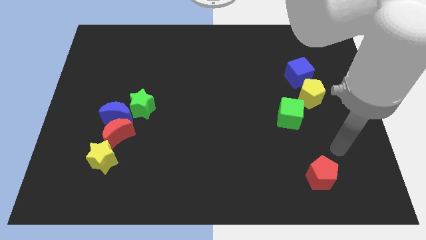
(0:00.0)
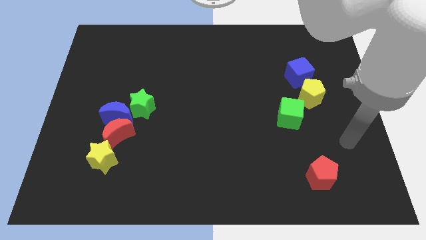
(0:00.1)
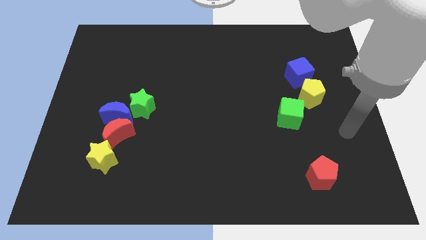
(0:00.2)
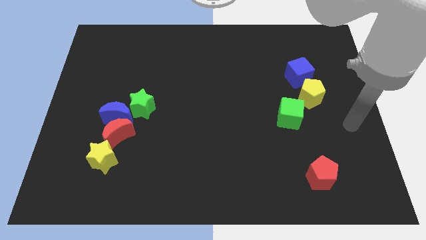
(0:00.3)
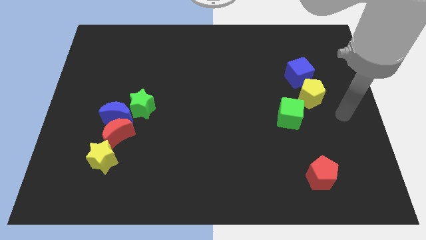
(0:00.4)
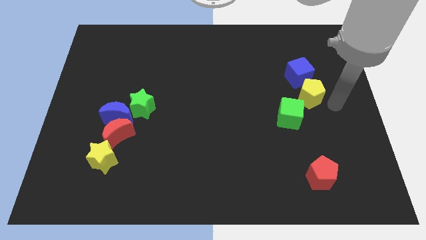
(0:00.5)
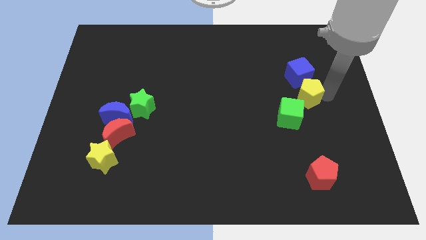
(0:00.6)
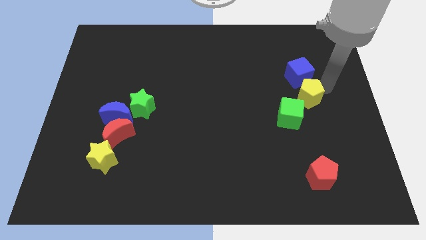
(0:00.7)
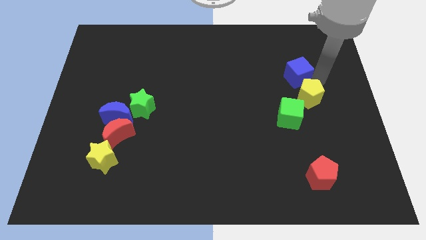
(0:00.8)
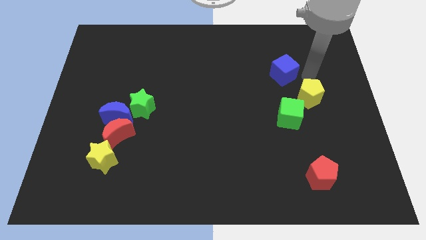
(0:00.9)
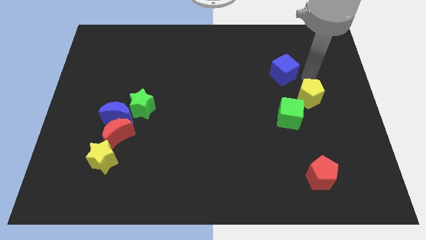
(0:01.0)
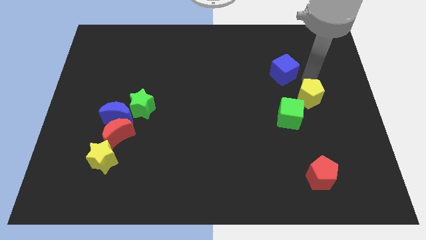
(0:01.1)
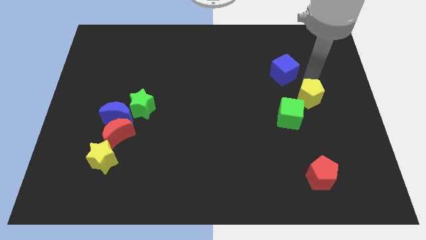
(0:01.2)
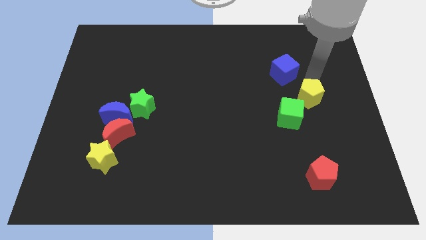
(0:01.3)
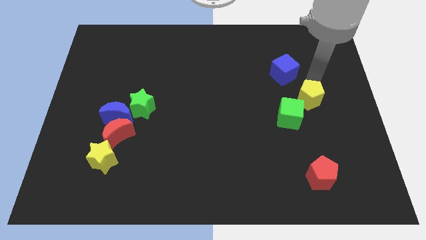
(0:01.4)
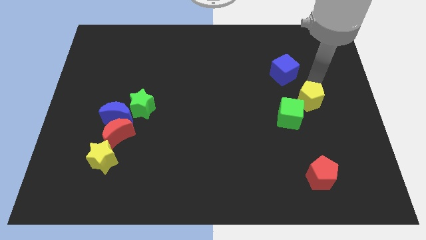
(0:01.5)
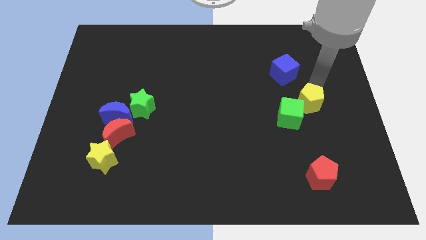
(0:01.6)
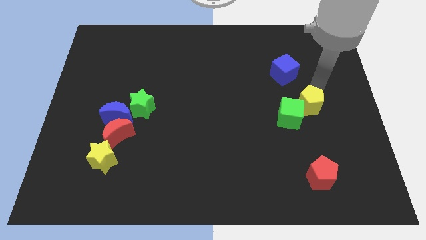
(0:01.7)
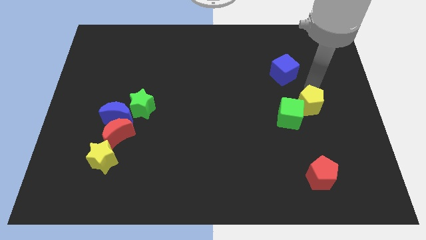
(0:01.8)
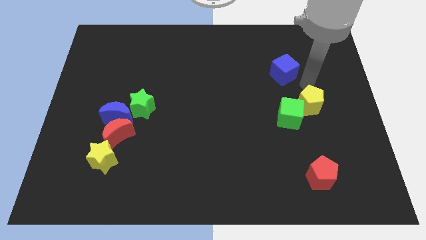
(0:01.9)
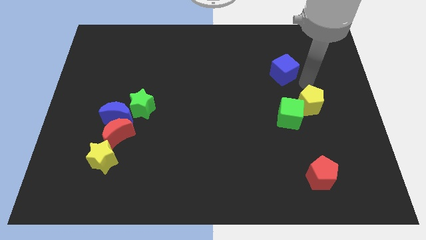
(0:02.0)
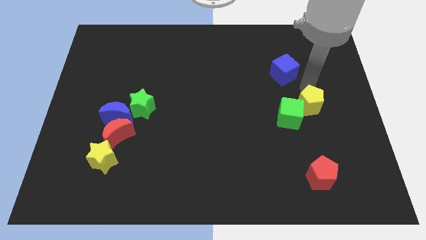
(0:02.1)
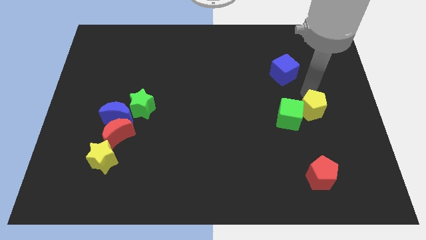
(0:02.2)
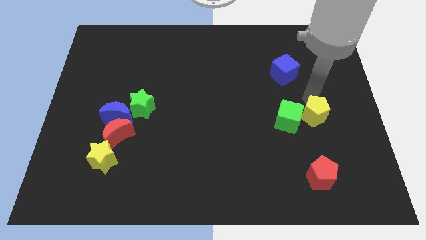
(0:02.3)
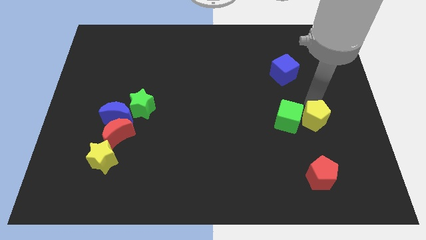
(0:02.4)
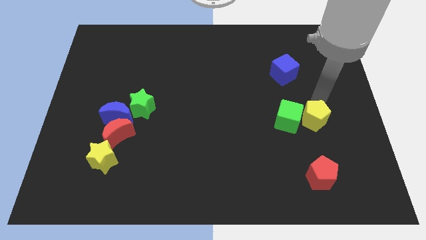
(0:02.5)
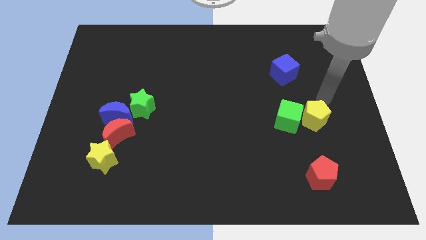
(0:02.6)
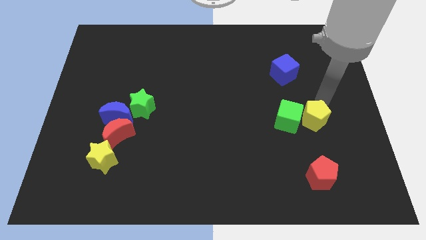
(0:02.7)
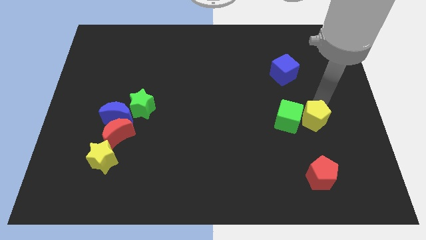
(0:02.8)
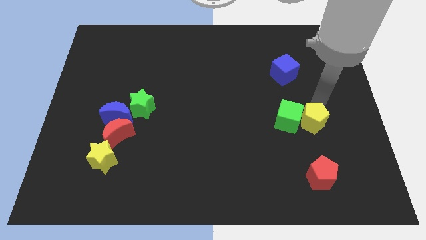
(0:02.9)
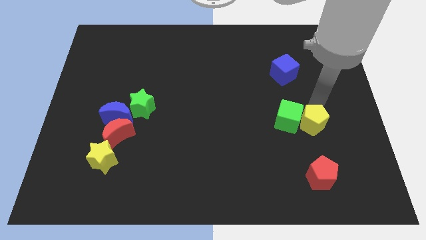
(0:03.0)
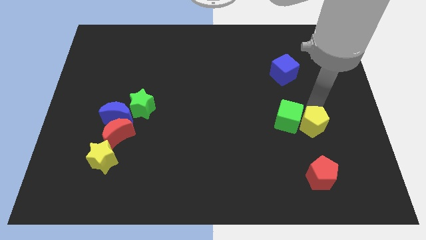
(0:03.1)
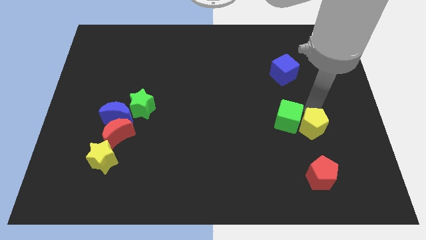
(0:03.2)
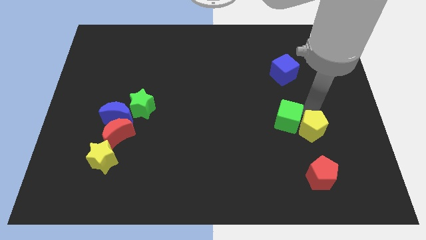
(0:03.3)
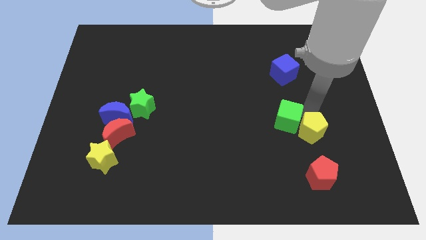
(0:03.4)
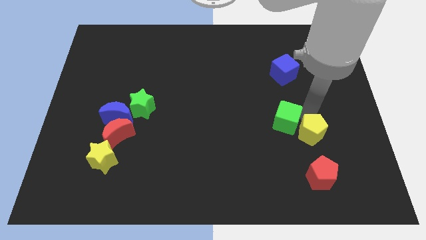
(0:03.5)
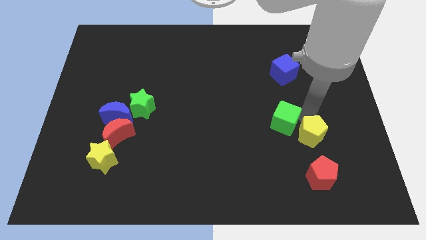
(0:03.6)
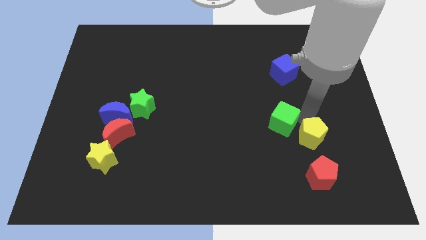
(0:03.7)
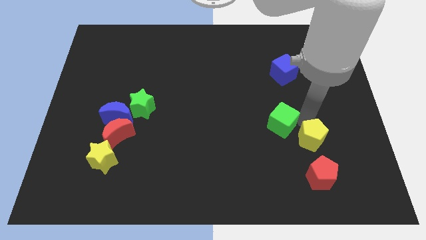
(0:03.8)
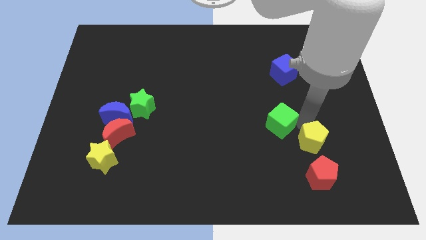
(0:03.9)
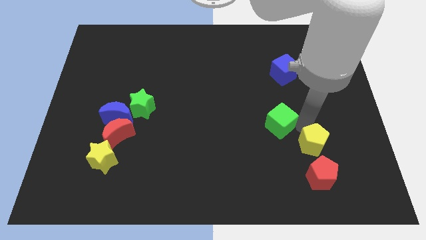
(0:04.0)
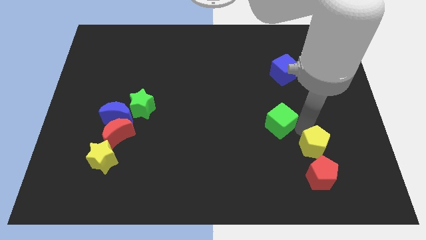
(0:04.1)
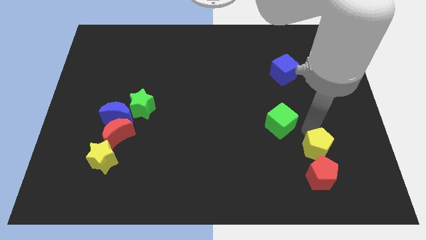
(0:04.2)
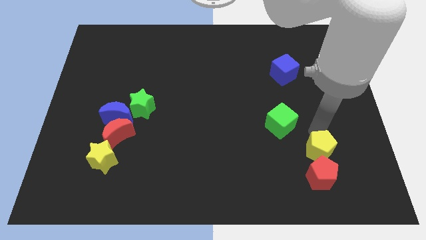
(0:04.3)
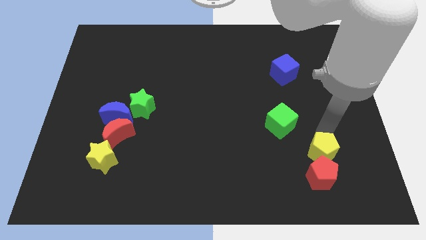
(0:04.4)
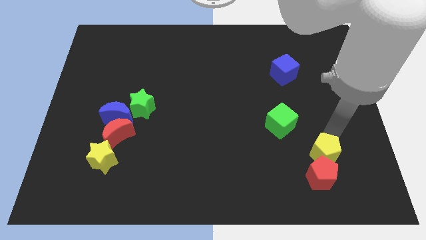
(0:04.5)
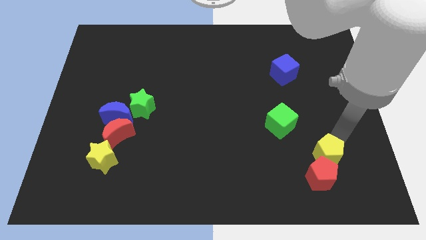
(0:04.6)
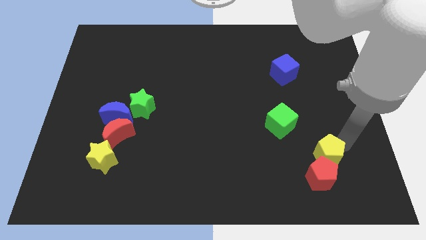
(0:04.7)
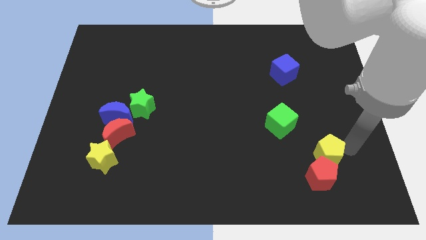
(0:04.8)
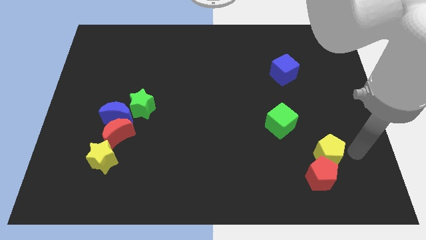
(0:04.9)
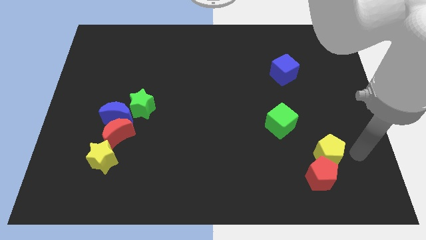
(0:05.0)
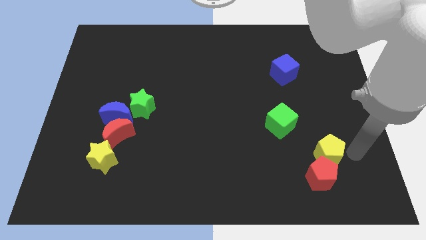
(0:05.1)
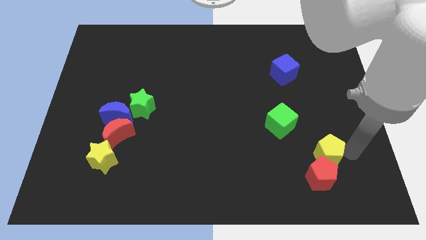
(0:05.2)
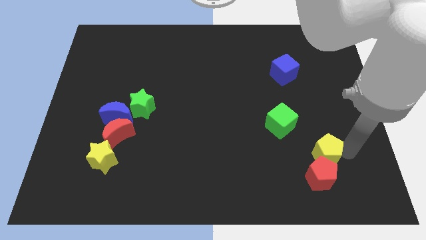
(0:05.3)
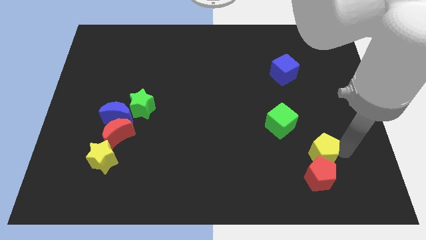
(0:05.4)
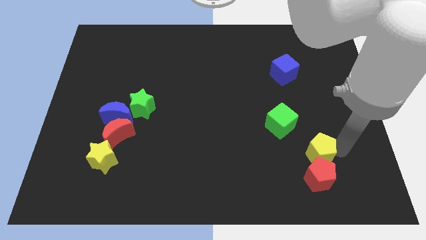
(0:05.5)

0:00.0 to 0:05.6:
move the yellow pentagon to the top left side of the red pentagon

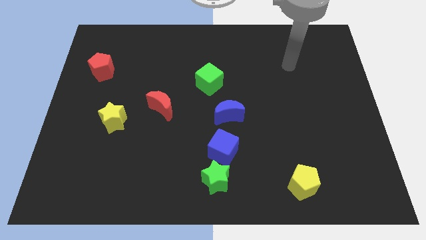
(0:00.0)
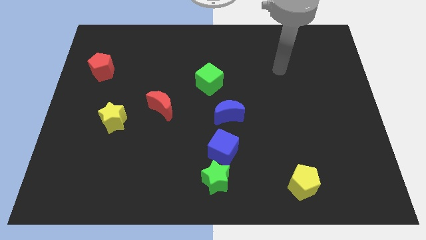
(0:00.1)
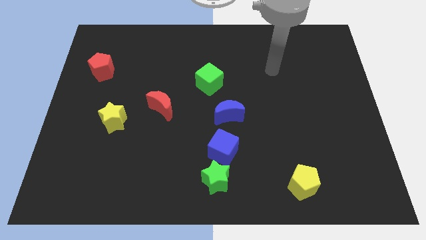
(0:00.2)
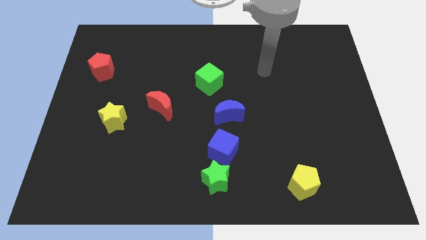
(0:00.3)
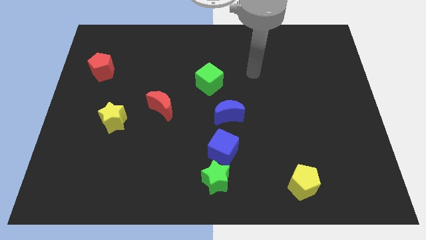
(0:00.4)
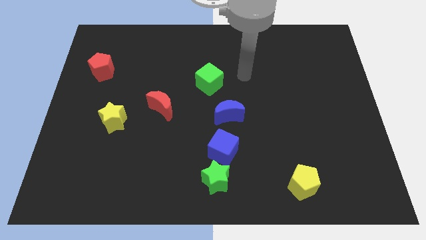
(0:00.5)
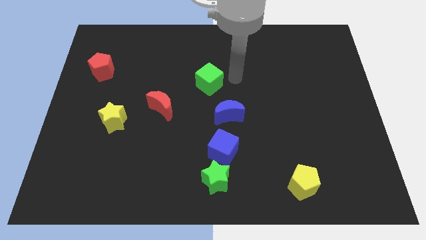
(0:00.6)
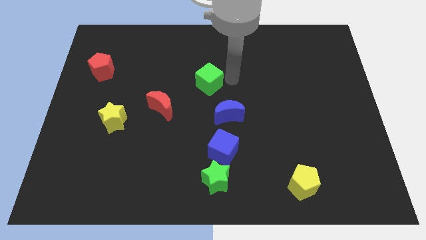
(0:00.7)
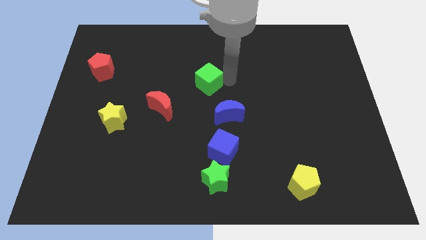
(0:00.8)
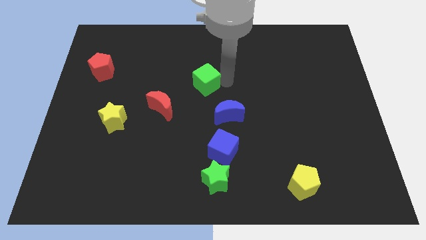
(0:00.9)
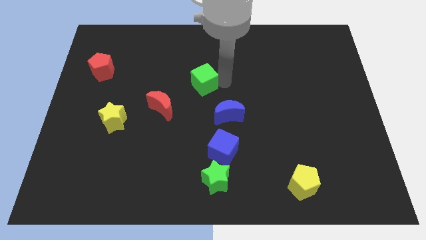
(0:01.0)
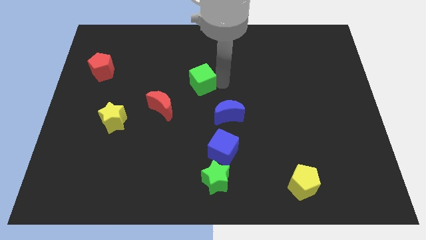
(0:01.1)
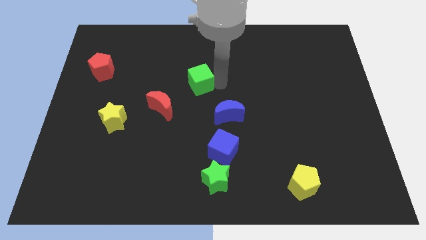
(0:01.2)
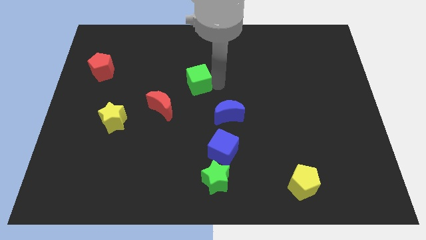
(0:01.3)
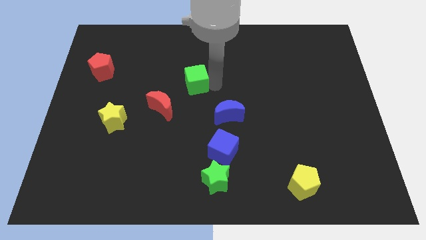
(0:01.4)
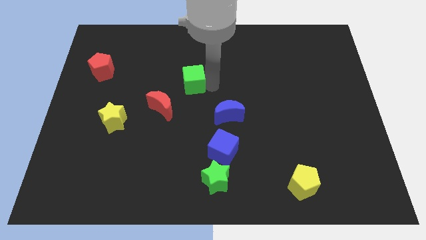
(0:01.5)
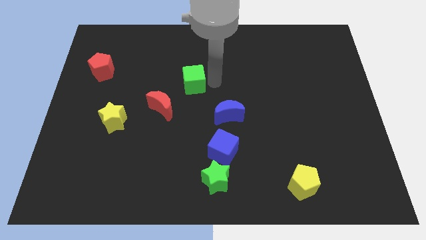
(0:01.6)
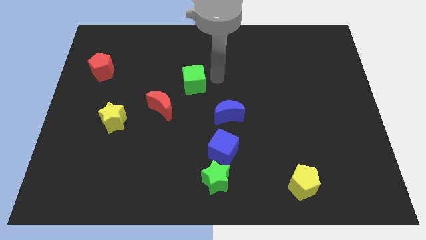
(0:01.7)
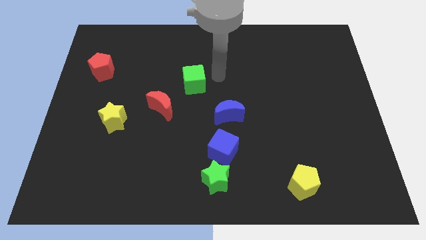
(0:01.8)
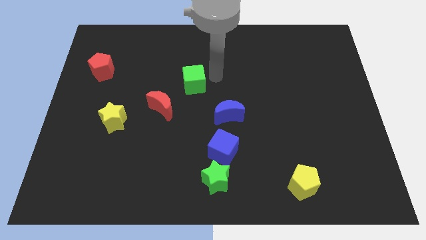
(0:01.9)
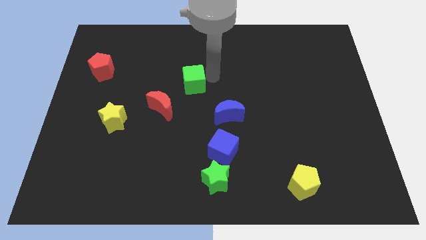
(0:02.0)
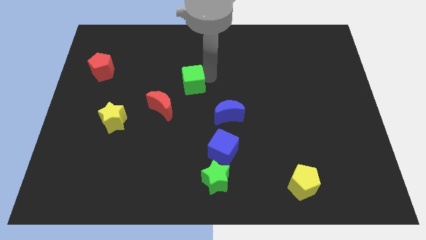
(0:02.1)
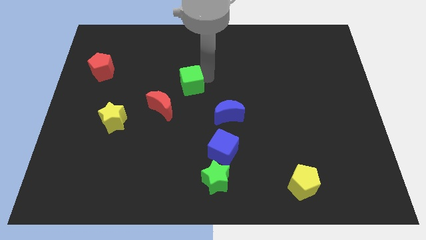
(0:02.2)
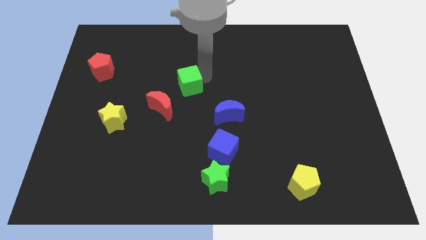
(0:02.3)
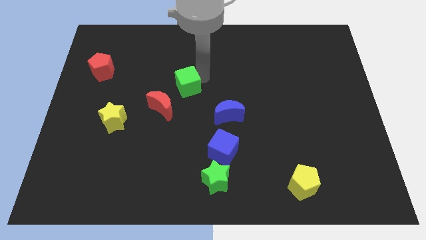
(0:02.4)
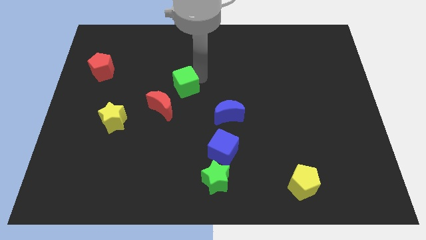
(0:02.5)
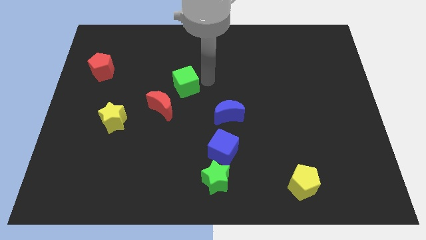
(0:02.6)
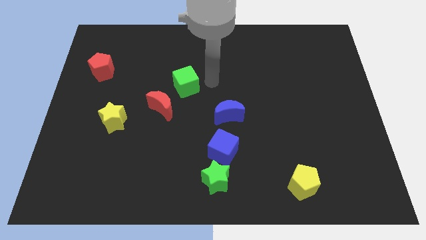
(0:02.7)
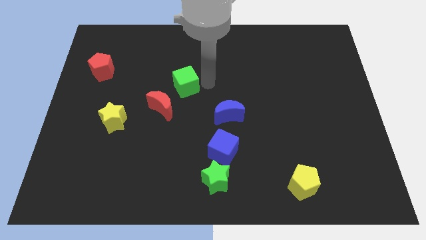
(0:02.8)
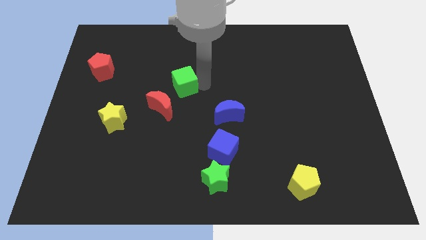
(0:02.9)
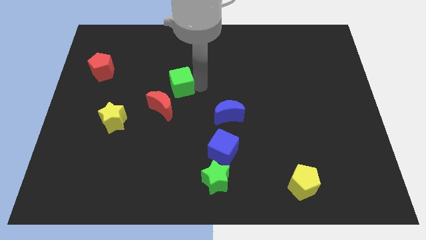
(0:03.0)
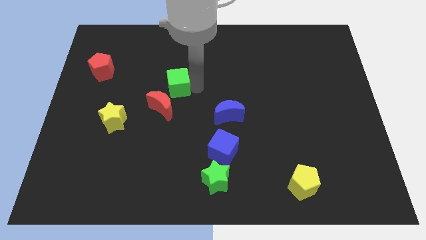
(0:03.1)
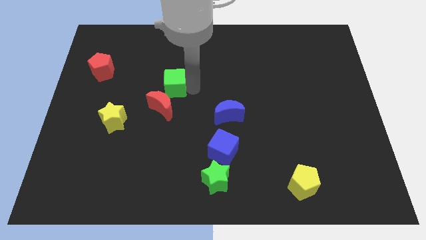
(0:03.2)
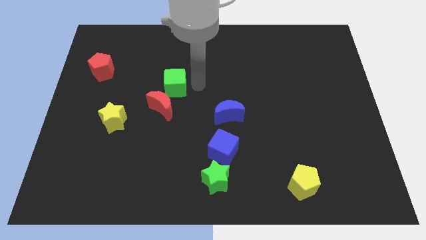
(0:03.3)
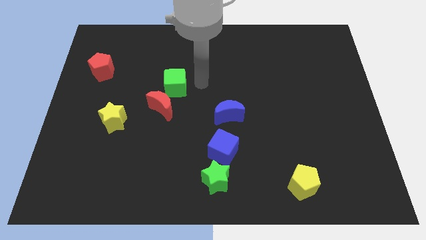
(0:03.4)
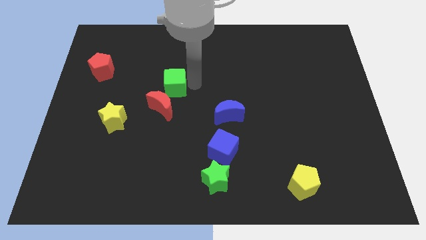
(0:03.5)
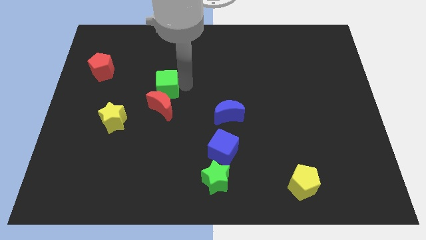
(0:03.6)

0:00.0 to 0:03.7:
move the green cube to the top left side of the red moon
